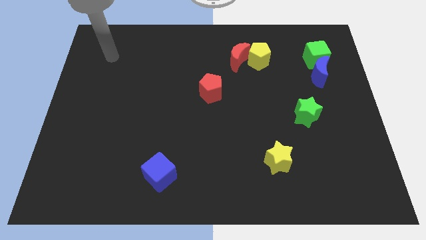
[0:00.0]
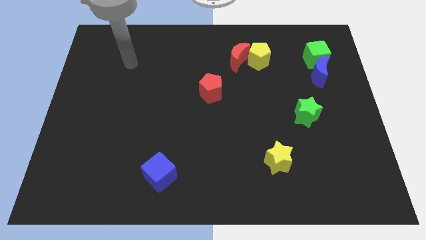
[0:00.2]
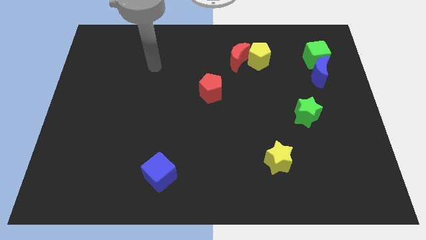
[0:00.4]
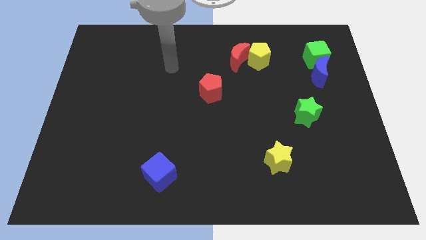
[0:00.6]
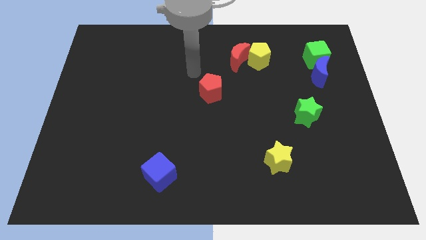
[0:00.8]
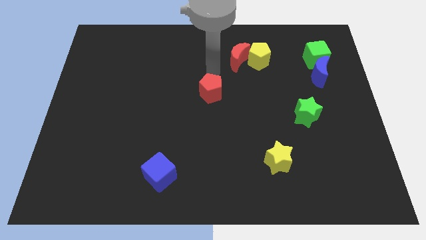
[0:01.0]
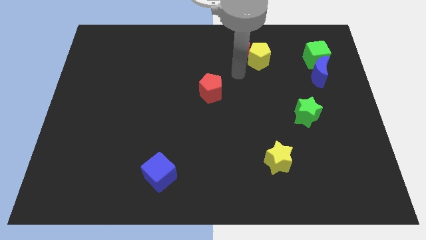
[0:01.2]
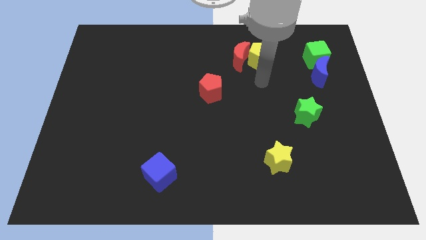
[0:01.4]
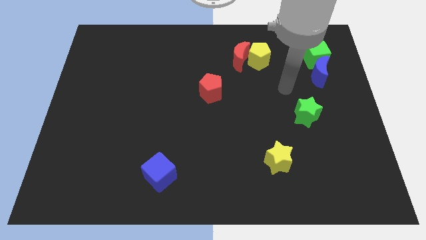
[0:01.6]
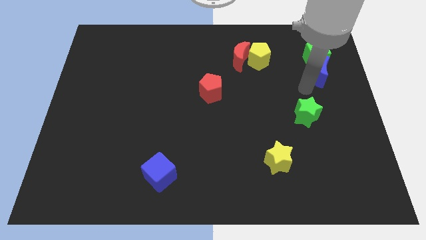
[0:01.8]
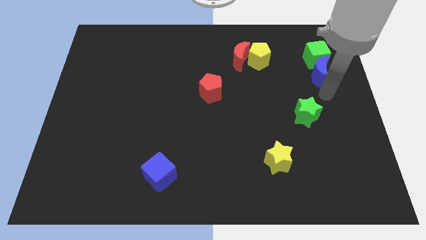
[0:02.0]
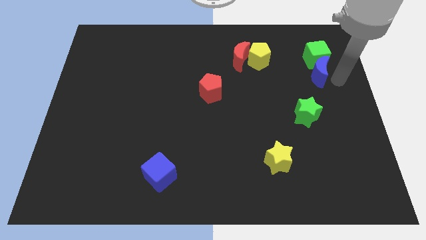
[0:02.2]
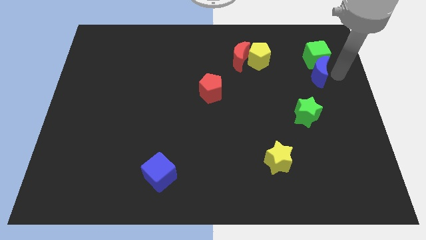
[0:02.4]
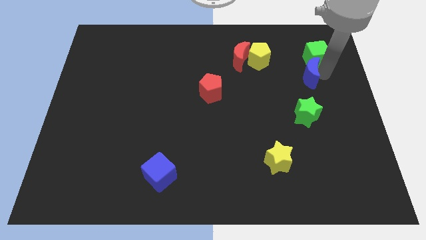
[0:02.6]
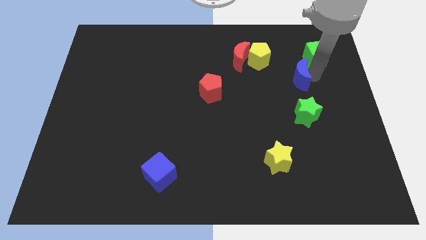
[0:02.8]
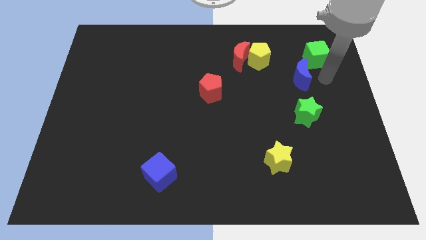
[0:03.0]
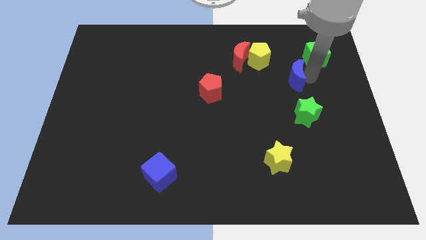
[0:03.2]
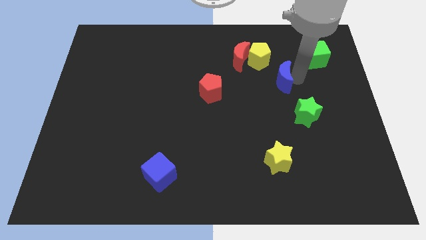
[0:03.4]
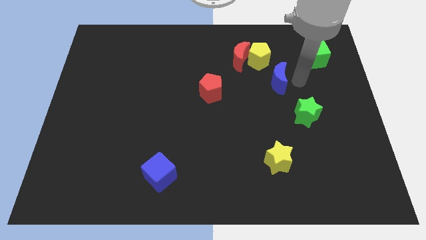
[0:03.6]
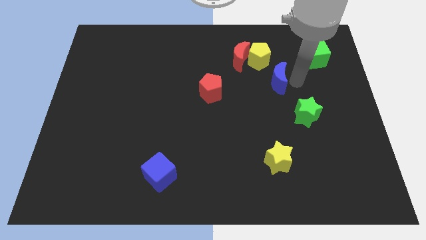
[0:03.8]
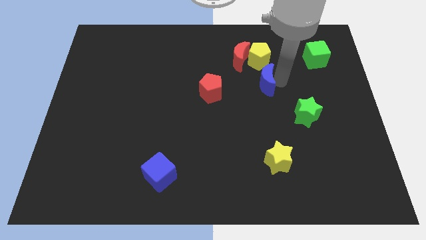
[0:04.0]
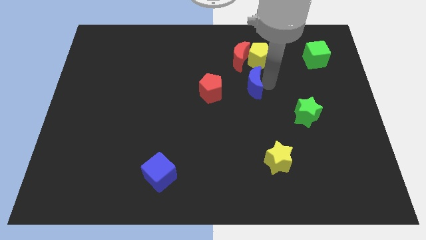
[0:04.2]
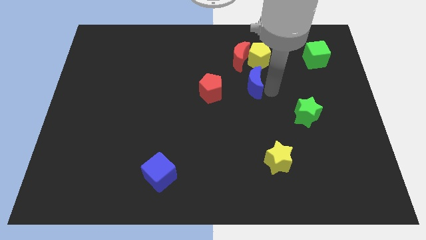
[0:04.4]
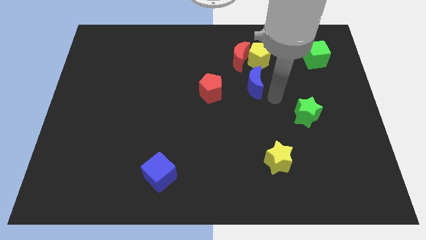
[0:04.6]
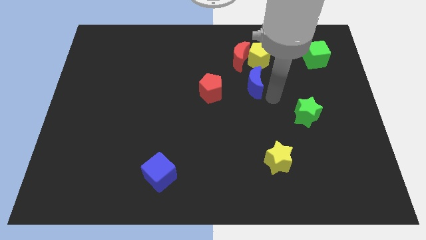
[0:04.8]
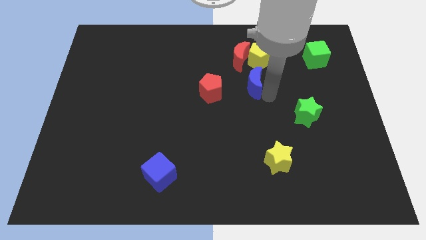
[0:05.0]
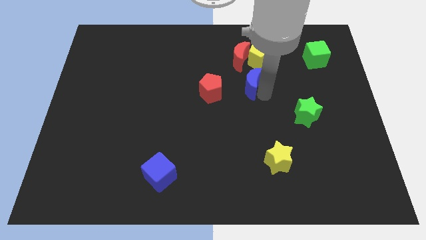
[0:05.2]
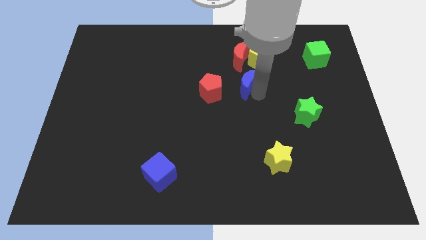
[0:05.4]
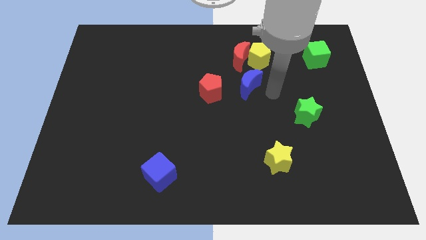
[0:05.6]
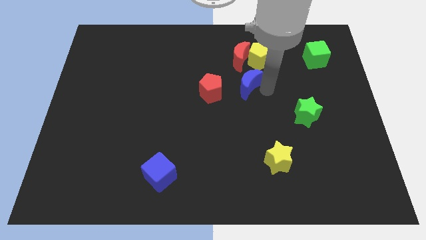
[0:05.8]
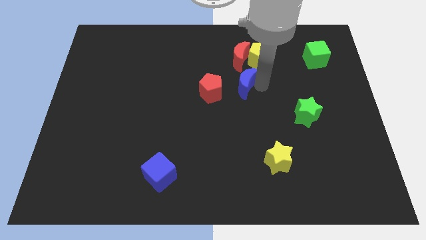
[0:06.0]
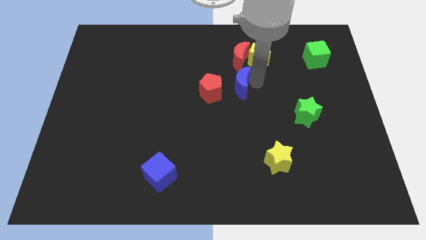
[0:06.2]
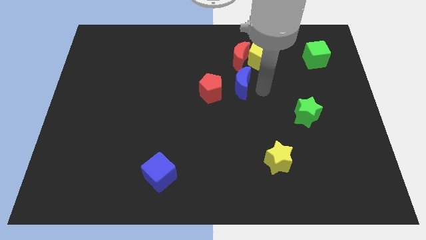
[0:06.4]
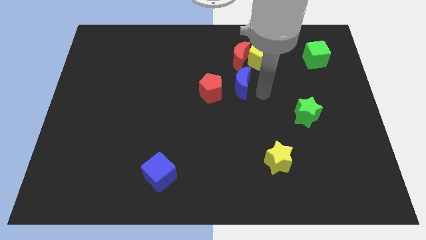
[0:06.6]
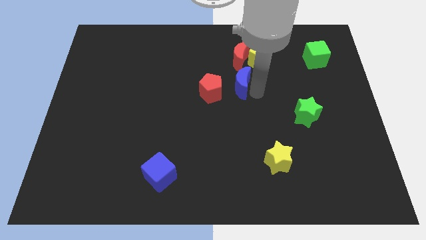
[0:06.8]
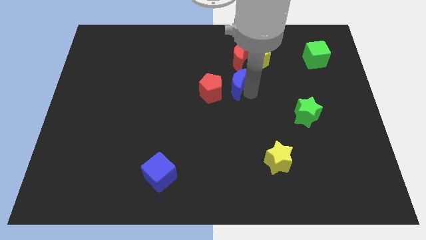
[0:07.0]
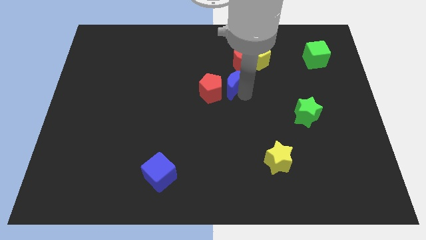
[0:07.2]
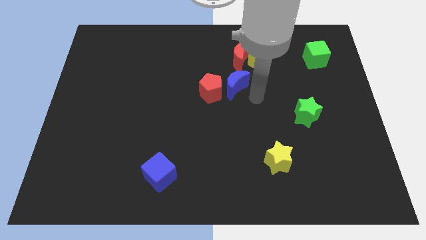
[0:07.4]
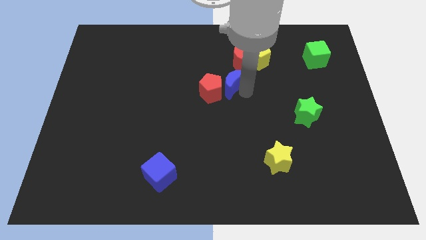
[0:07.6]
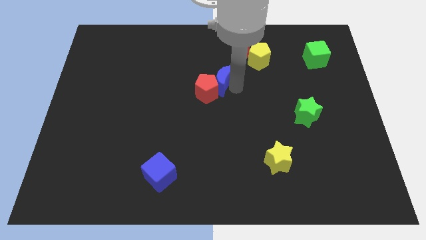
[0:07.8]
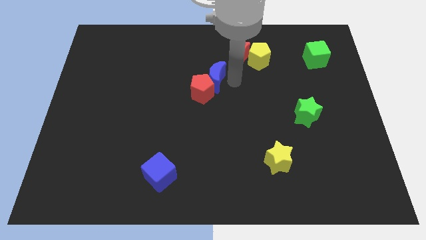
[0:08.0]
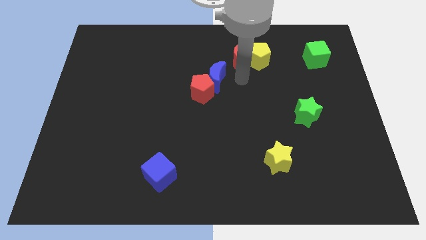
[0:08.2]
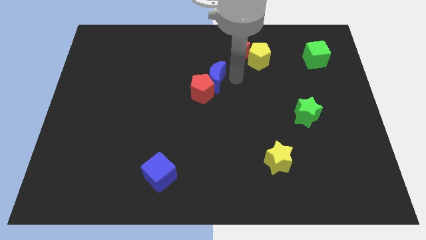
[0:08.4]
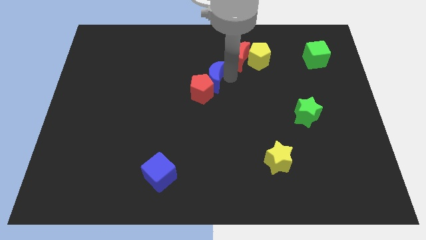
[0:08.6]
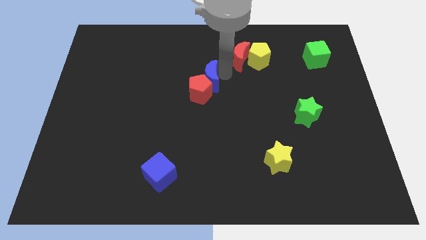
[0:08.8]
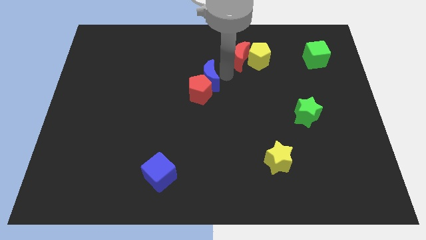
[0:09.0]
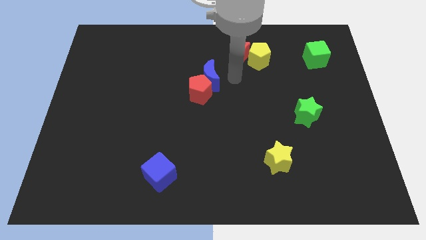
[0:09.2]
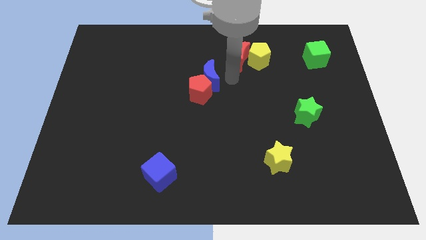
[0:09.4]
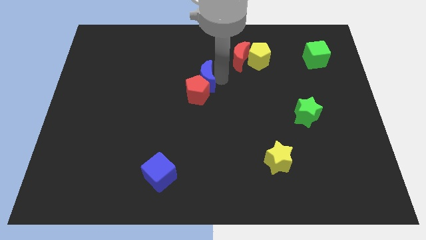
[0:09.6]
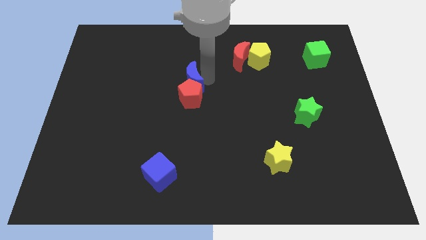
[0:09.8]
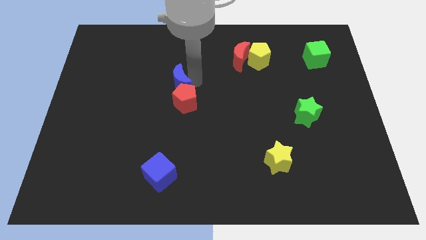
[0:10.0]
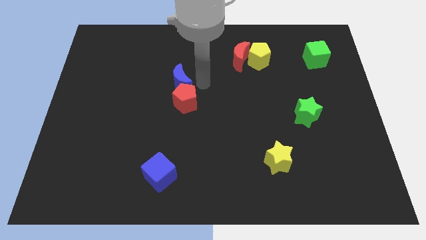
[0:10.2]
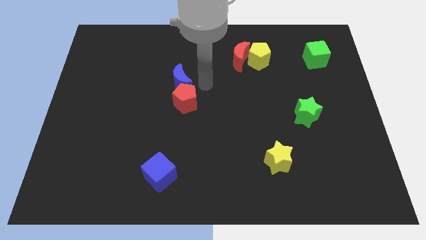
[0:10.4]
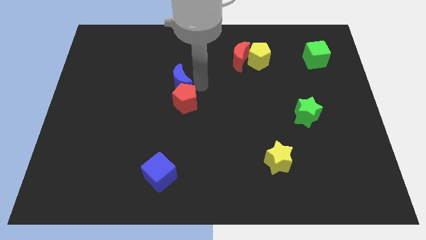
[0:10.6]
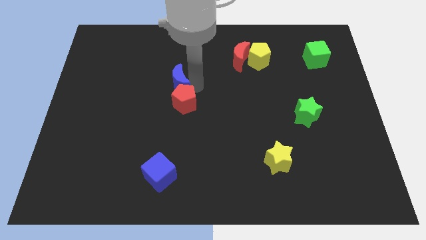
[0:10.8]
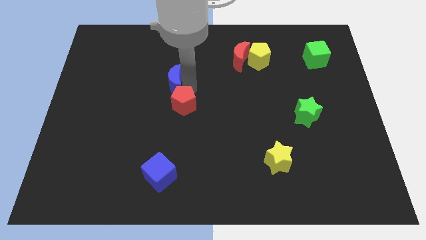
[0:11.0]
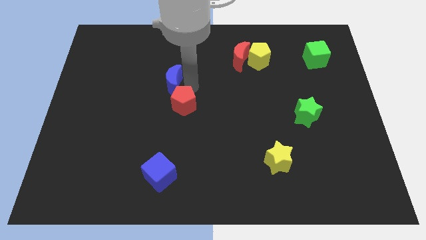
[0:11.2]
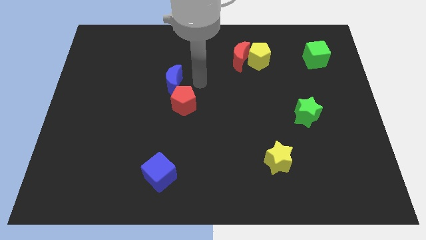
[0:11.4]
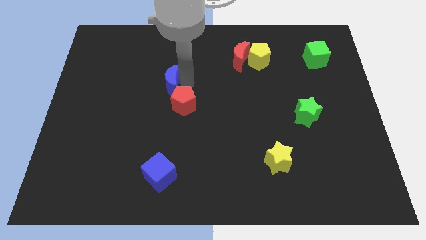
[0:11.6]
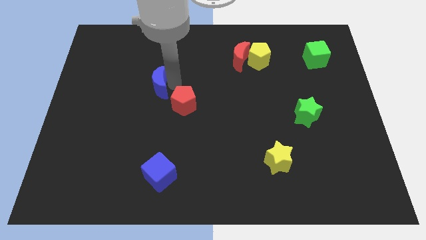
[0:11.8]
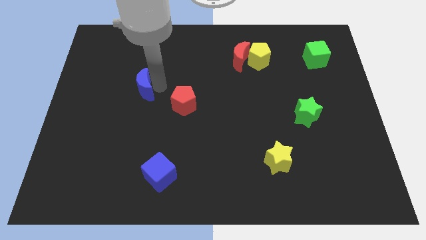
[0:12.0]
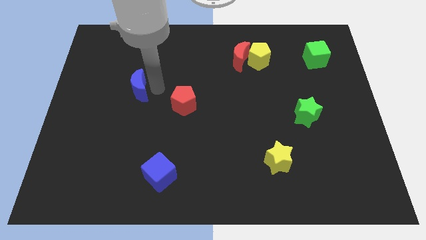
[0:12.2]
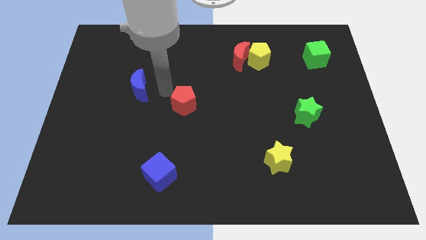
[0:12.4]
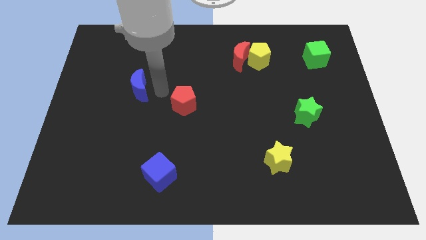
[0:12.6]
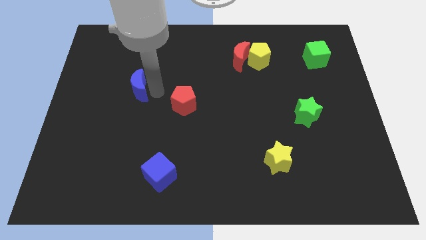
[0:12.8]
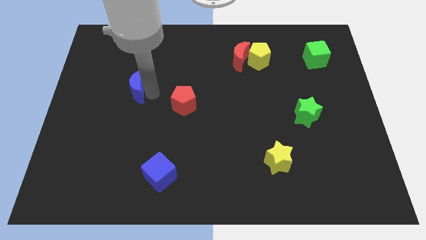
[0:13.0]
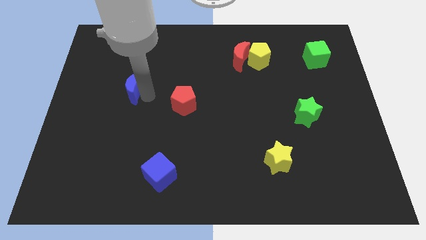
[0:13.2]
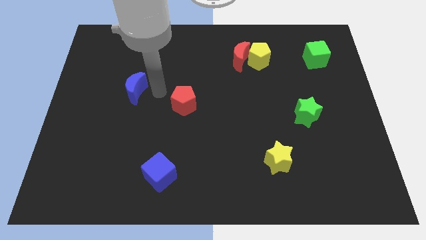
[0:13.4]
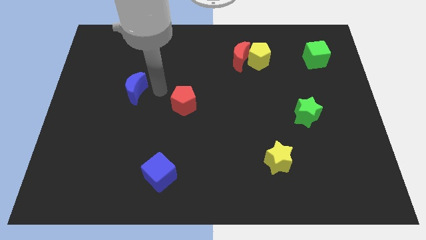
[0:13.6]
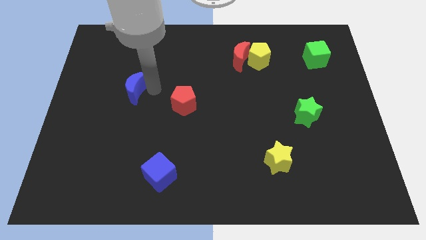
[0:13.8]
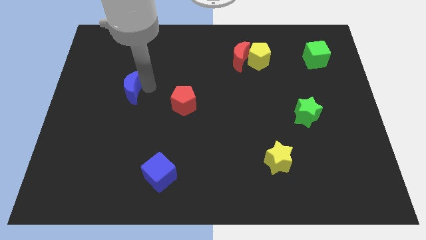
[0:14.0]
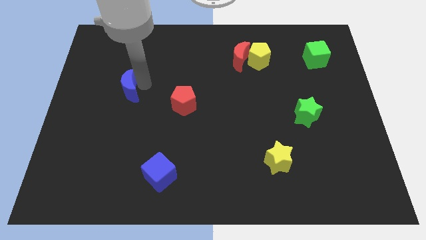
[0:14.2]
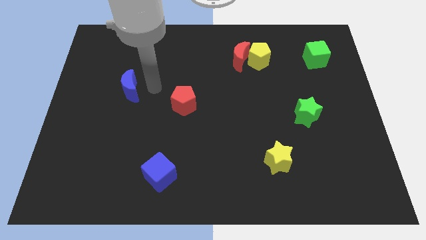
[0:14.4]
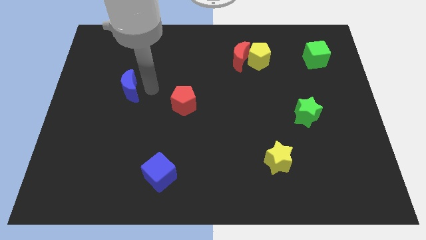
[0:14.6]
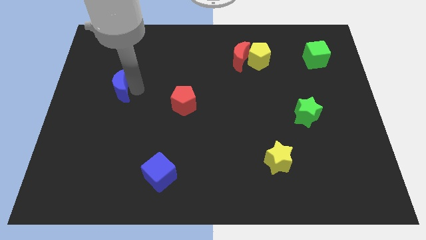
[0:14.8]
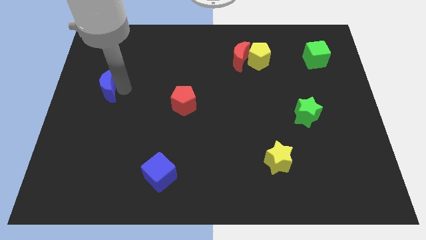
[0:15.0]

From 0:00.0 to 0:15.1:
move the blue moon to the left side
